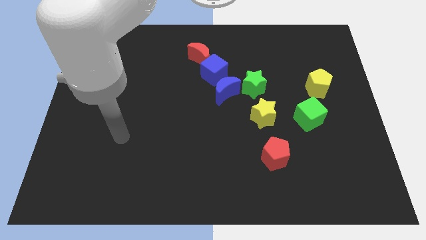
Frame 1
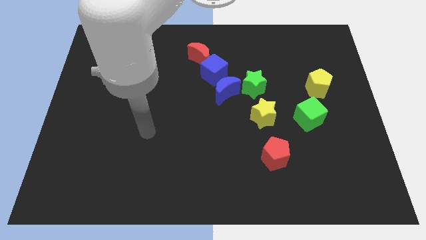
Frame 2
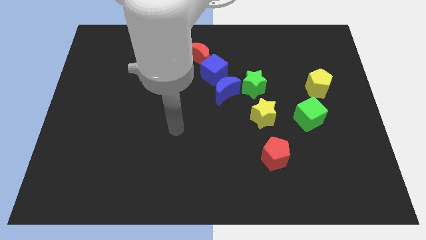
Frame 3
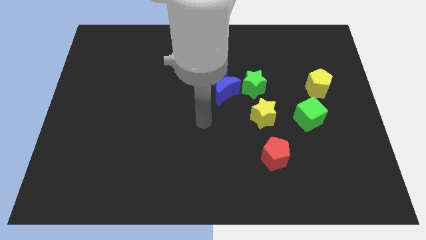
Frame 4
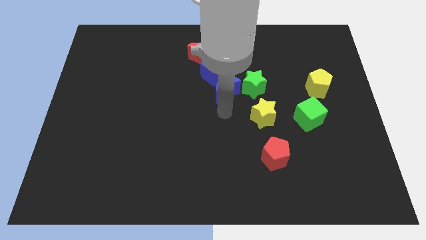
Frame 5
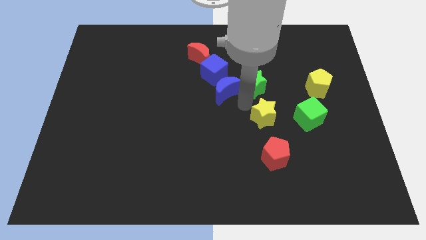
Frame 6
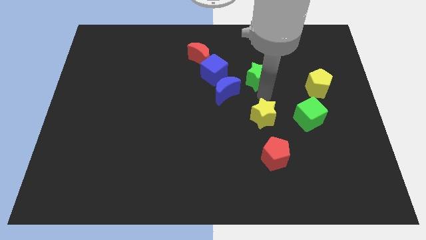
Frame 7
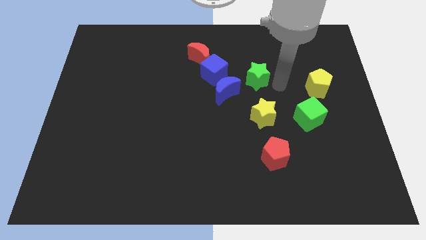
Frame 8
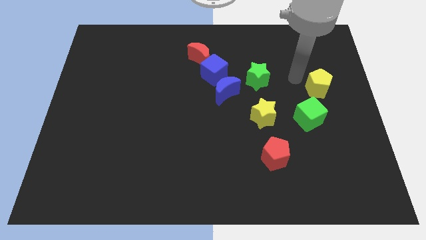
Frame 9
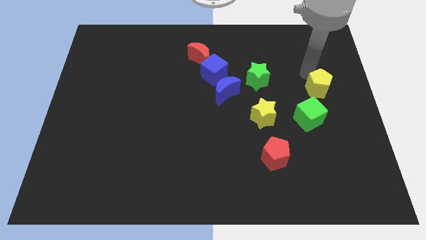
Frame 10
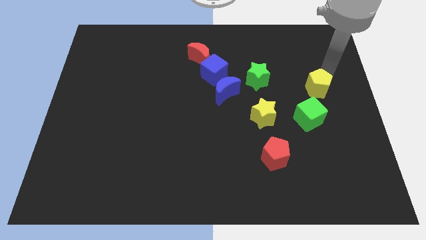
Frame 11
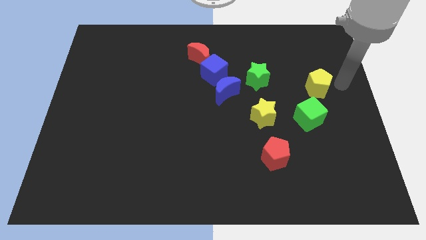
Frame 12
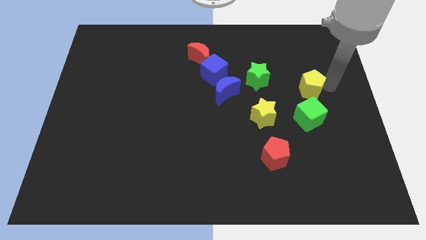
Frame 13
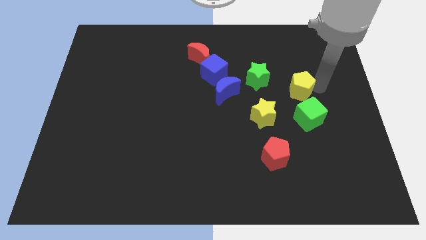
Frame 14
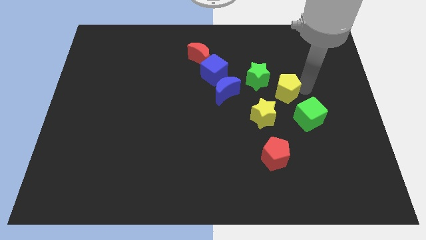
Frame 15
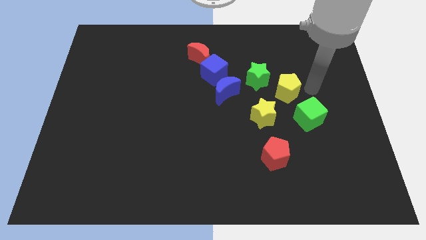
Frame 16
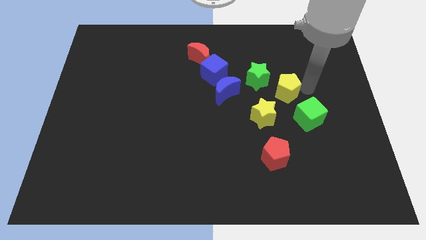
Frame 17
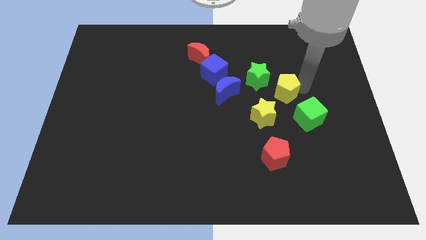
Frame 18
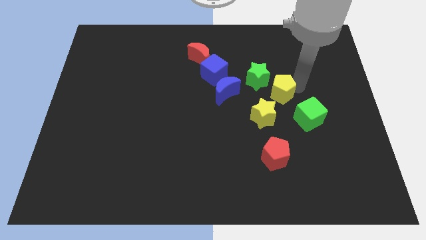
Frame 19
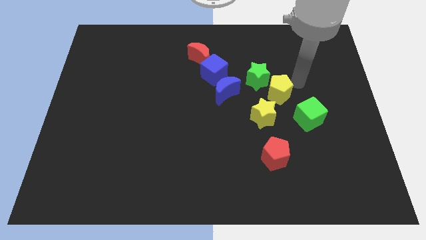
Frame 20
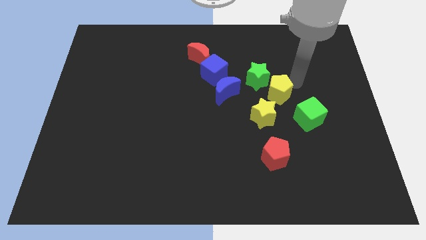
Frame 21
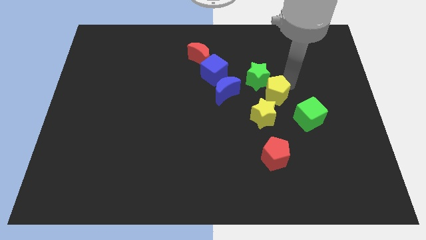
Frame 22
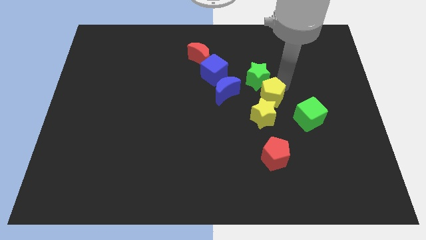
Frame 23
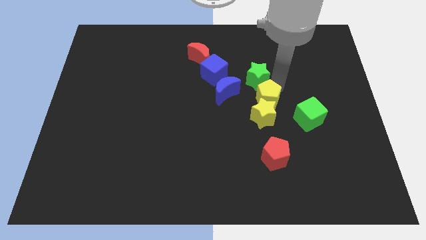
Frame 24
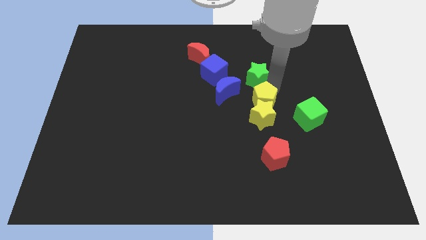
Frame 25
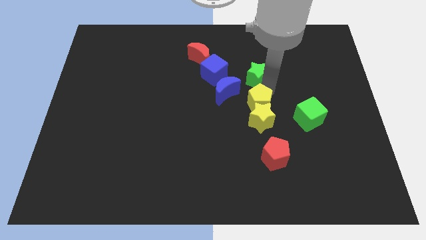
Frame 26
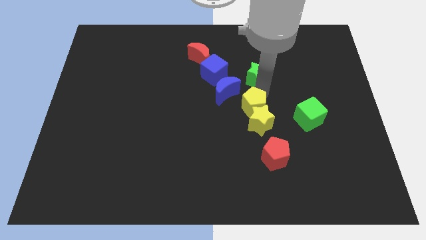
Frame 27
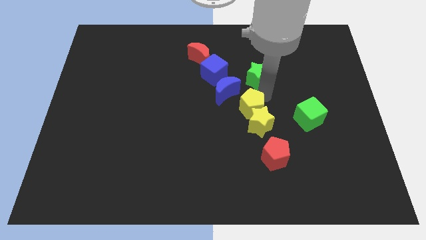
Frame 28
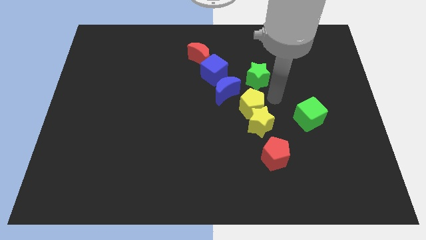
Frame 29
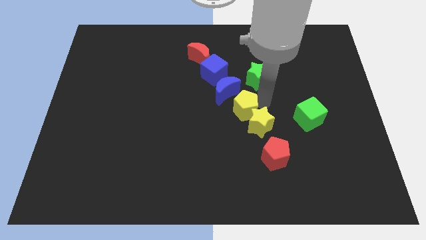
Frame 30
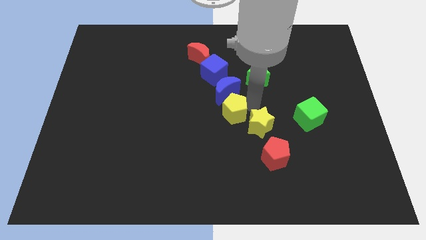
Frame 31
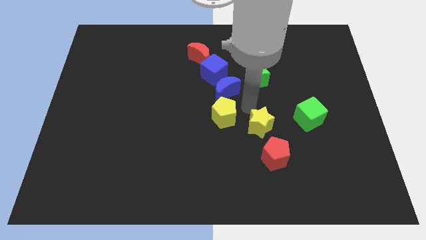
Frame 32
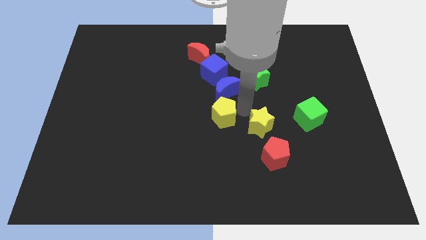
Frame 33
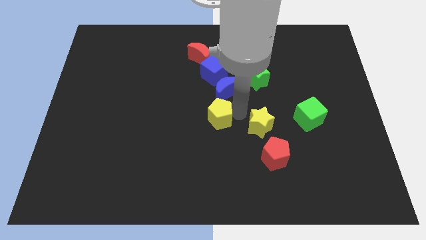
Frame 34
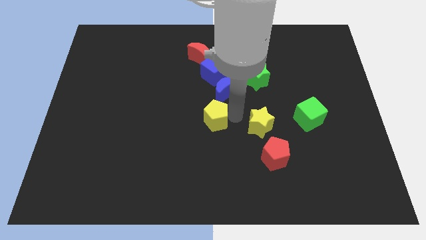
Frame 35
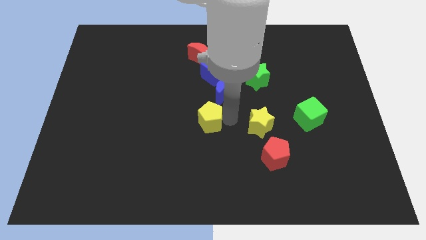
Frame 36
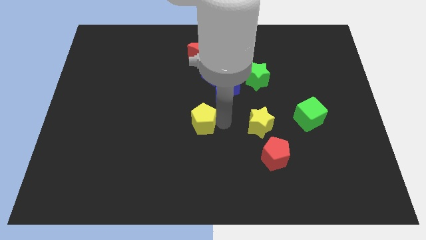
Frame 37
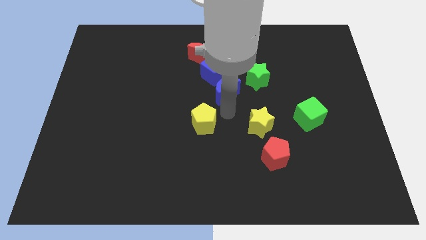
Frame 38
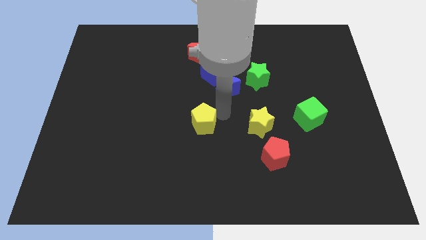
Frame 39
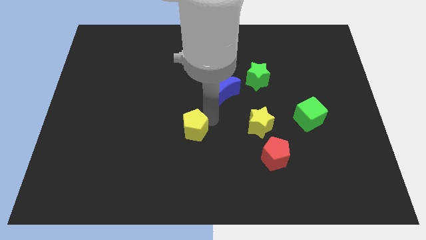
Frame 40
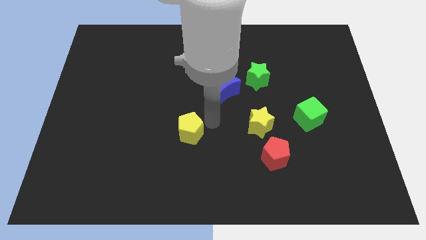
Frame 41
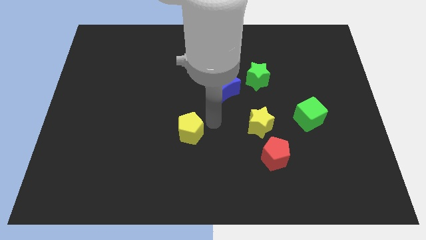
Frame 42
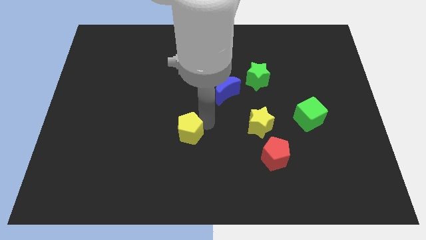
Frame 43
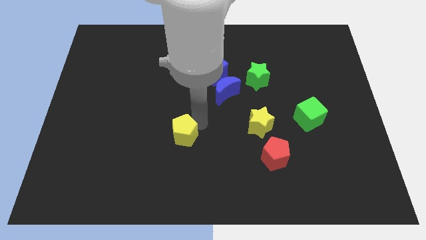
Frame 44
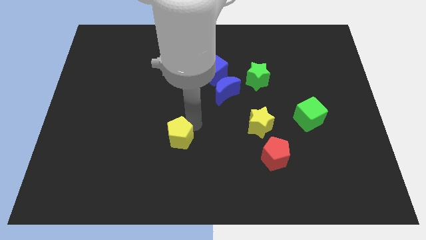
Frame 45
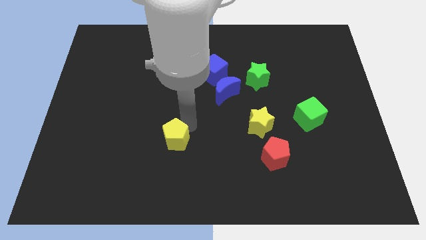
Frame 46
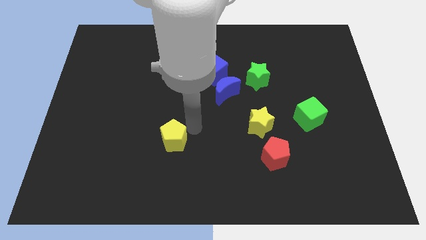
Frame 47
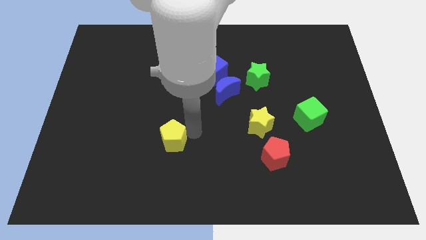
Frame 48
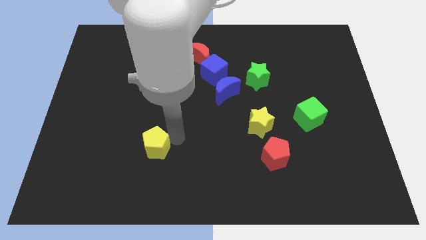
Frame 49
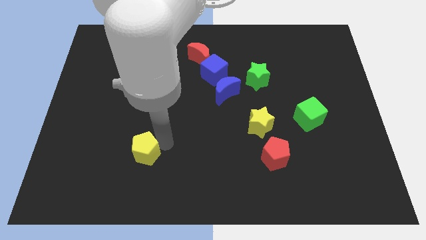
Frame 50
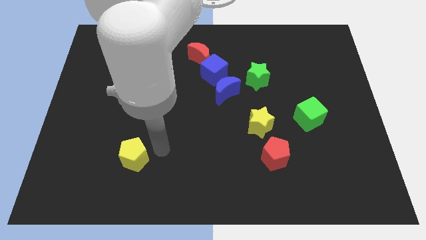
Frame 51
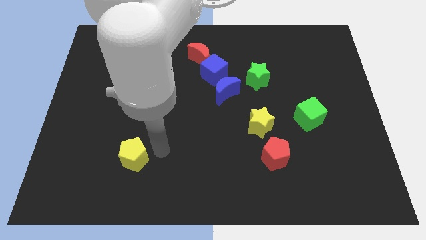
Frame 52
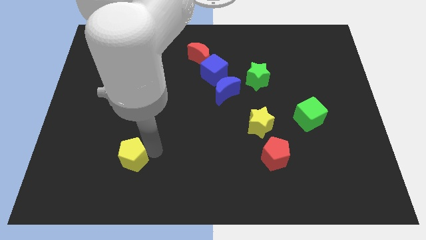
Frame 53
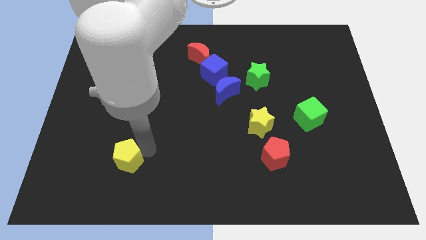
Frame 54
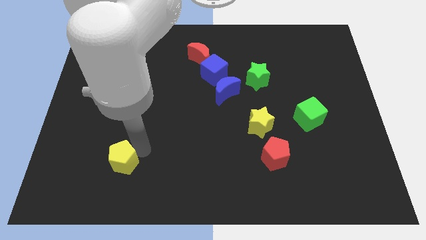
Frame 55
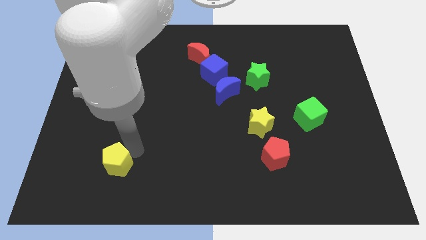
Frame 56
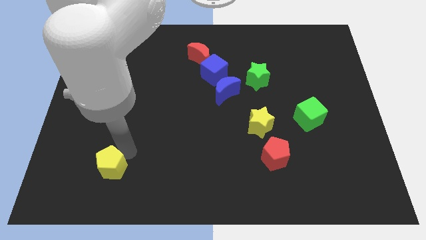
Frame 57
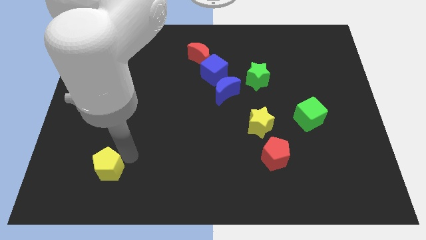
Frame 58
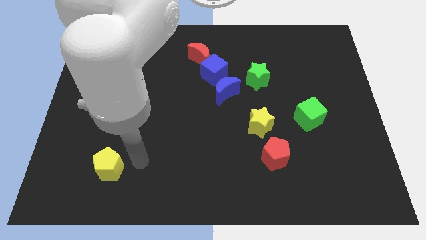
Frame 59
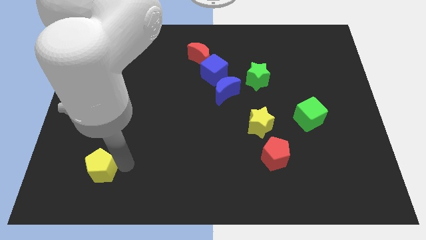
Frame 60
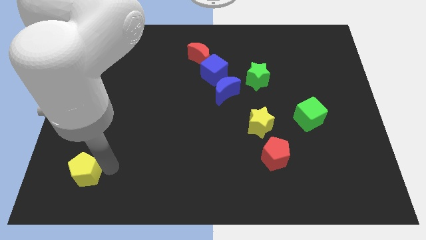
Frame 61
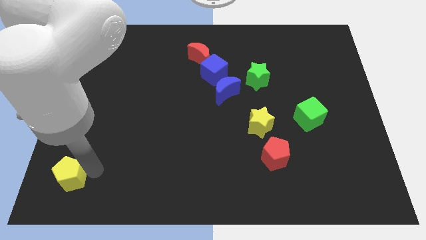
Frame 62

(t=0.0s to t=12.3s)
slide the yellow pentagon to the bottom left

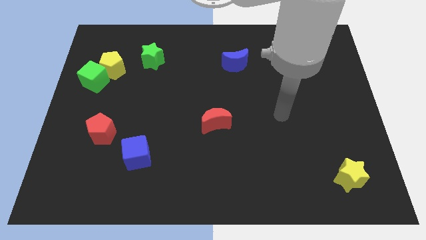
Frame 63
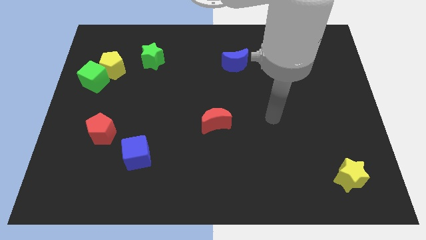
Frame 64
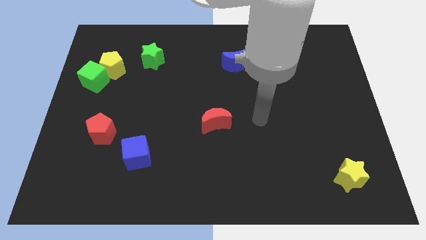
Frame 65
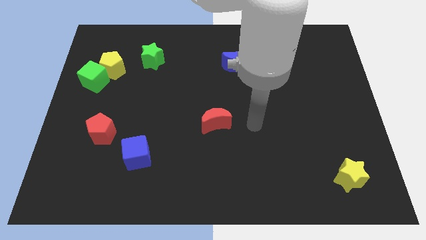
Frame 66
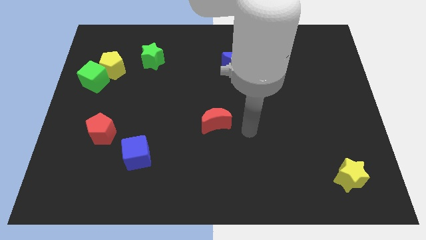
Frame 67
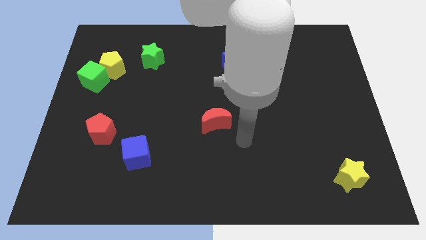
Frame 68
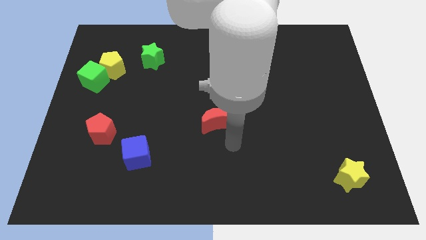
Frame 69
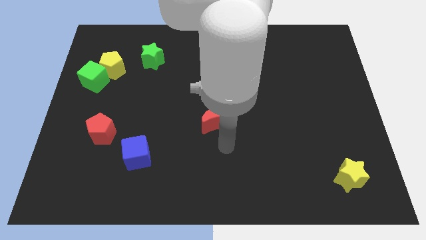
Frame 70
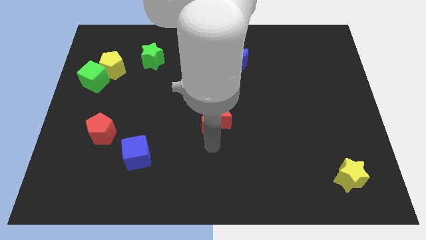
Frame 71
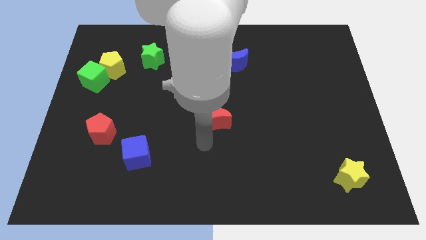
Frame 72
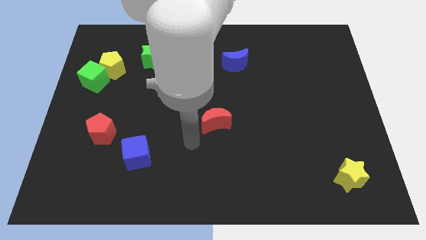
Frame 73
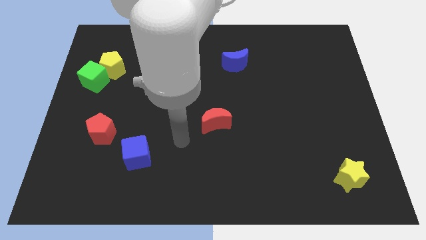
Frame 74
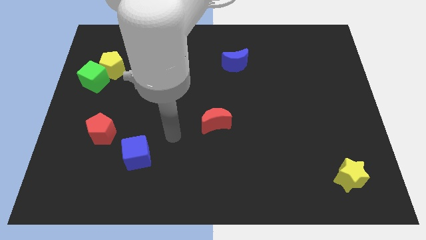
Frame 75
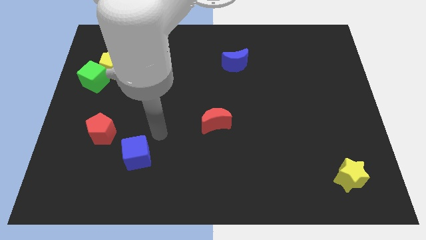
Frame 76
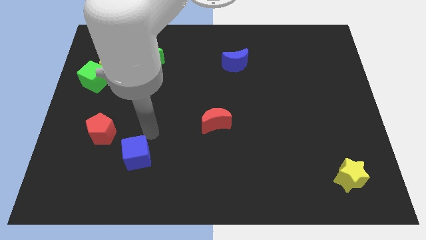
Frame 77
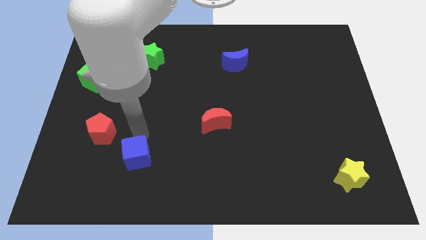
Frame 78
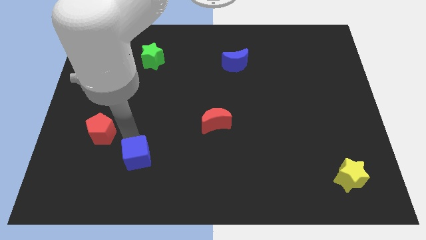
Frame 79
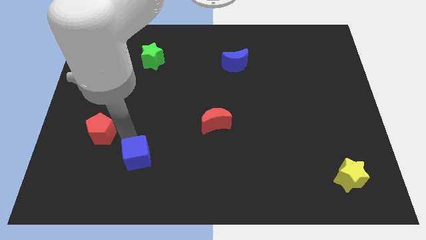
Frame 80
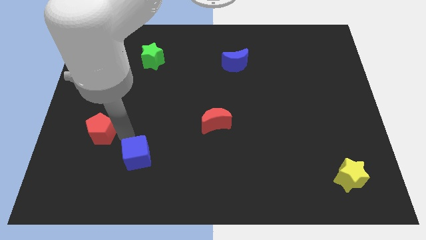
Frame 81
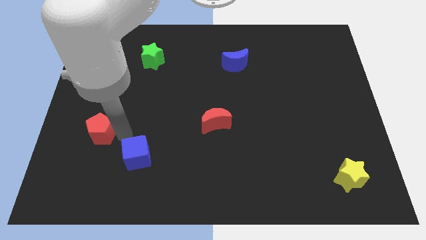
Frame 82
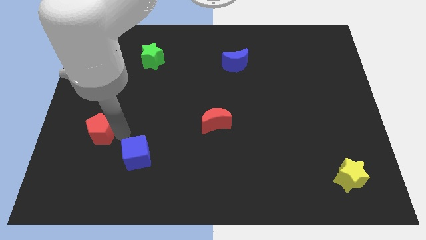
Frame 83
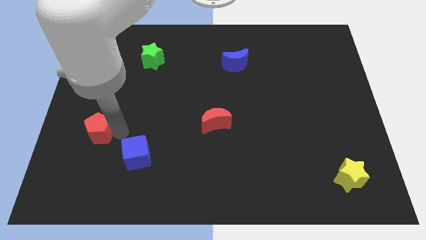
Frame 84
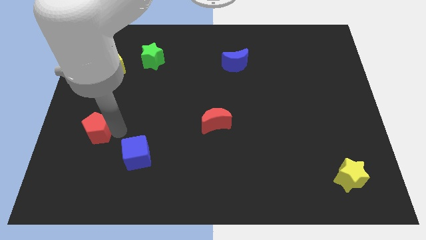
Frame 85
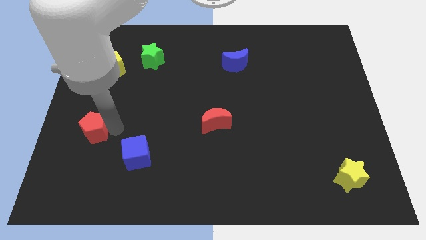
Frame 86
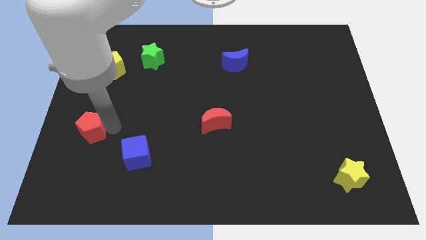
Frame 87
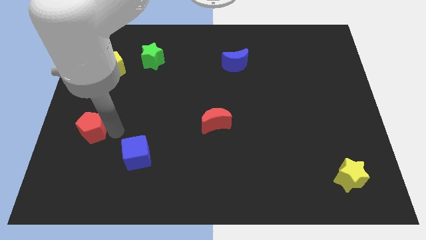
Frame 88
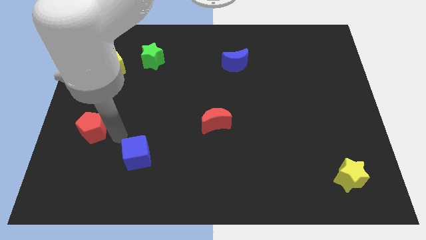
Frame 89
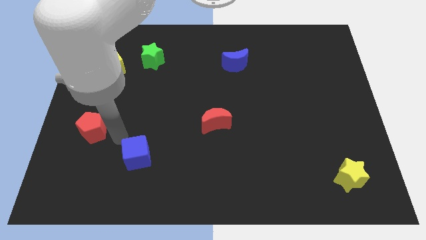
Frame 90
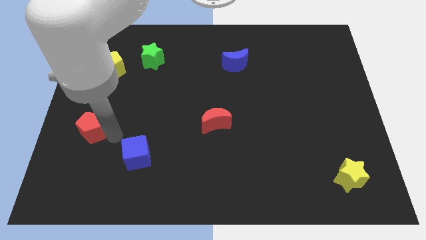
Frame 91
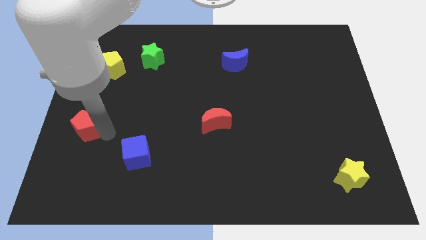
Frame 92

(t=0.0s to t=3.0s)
slide the red pentagon to the left side
